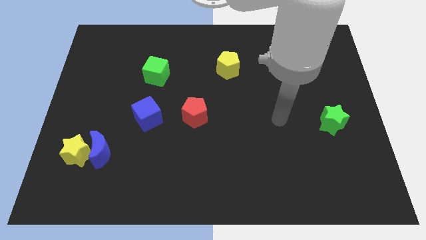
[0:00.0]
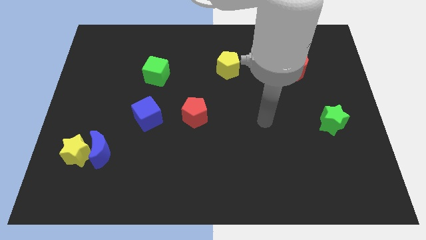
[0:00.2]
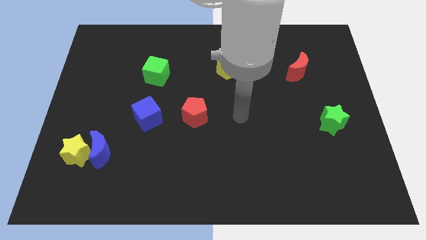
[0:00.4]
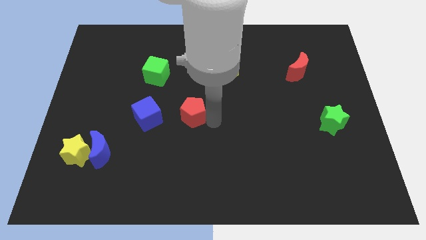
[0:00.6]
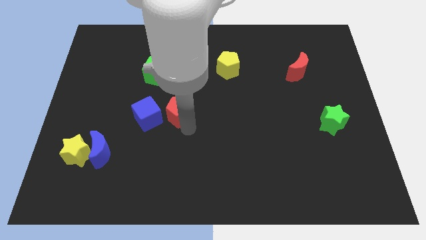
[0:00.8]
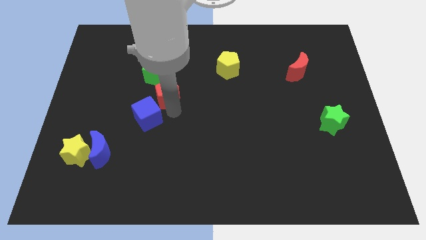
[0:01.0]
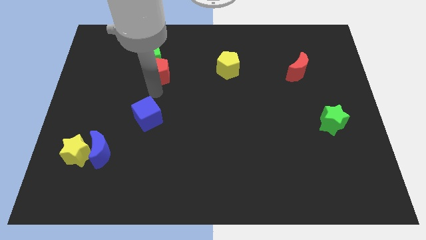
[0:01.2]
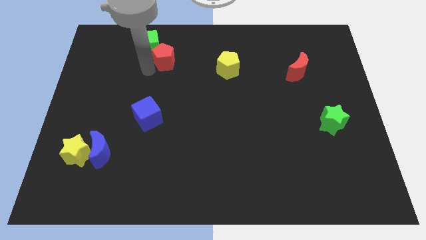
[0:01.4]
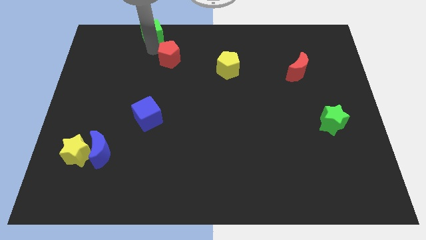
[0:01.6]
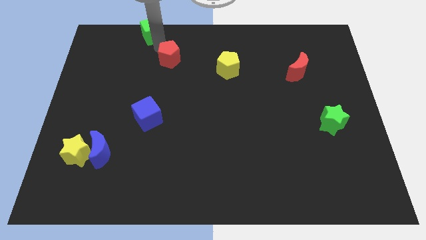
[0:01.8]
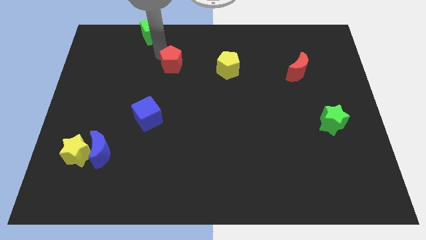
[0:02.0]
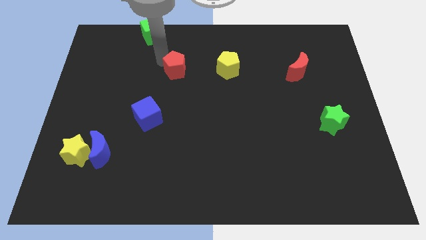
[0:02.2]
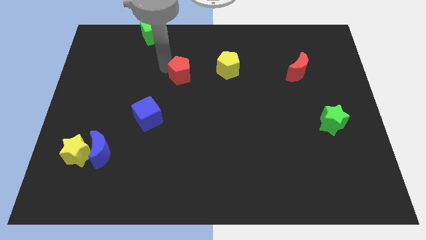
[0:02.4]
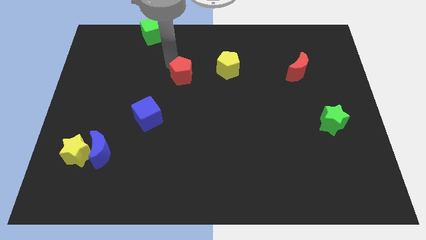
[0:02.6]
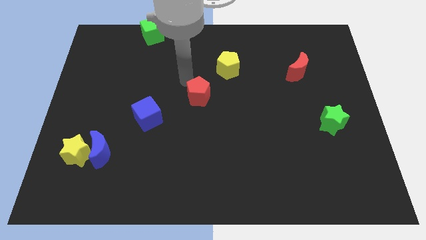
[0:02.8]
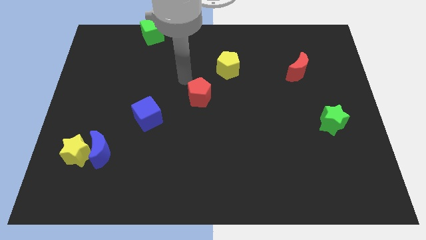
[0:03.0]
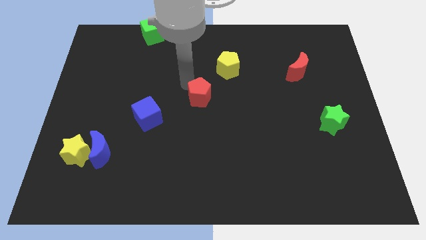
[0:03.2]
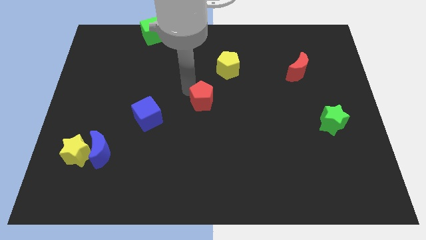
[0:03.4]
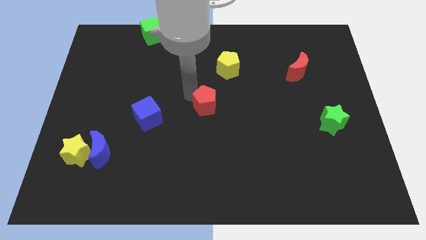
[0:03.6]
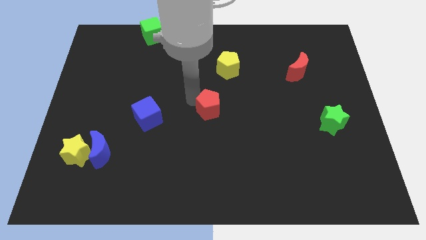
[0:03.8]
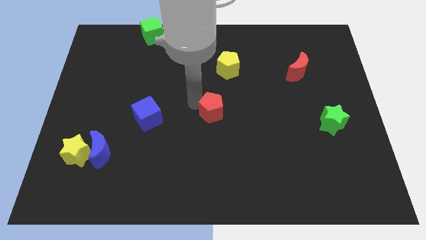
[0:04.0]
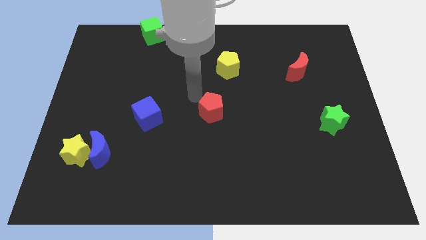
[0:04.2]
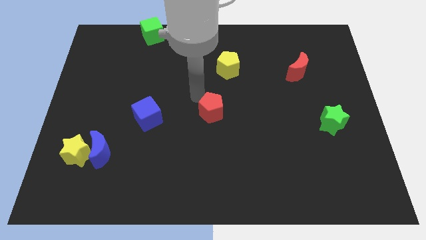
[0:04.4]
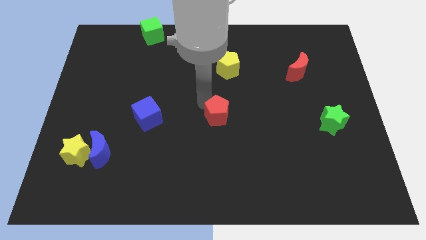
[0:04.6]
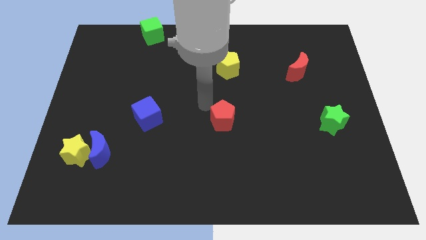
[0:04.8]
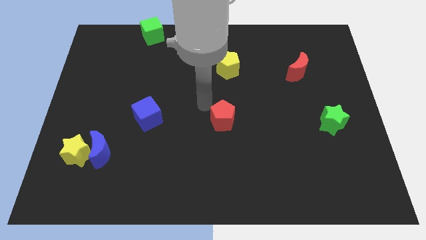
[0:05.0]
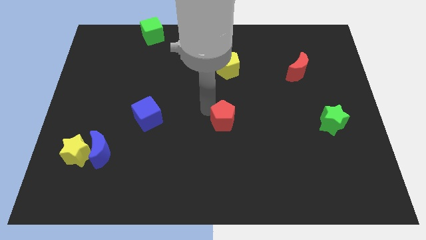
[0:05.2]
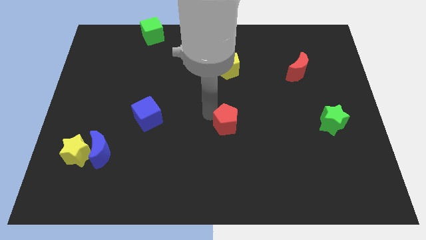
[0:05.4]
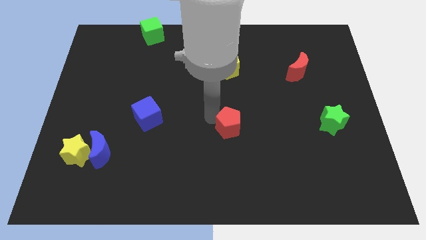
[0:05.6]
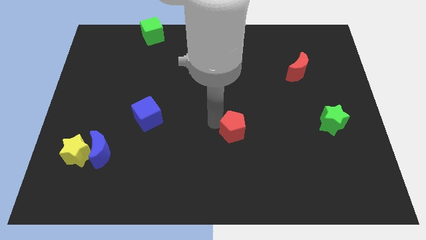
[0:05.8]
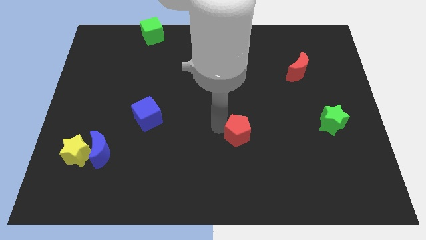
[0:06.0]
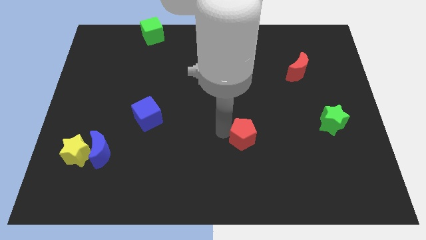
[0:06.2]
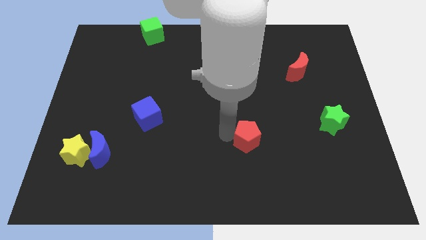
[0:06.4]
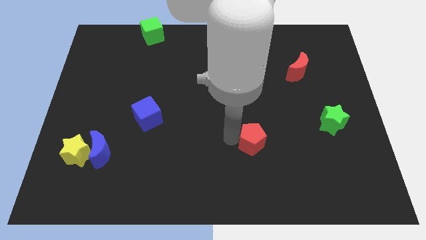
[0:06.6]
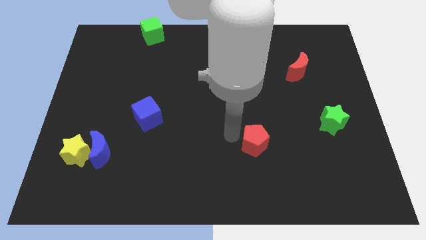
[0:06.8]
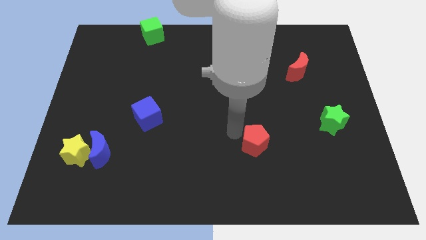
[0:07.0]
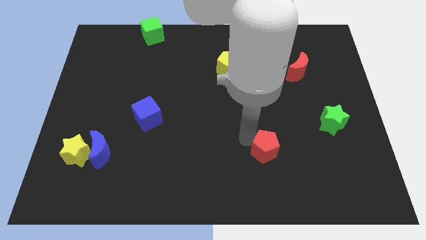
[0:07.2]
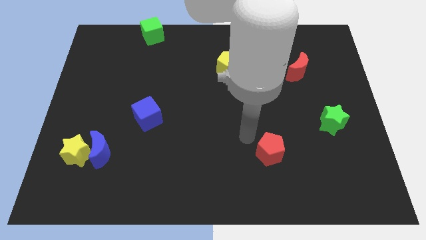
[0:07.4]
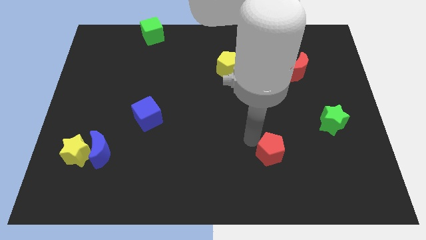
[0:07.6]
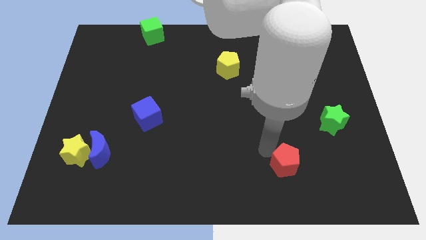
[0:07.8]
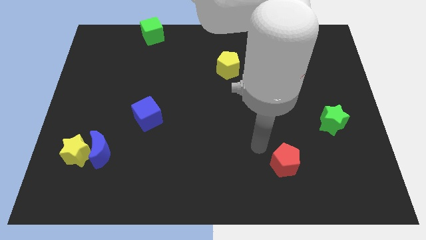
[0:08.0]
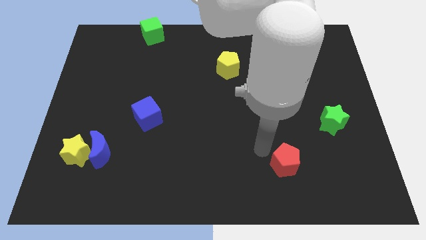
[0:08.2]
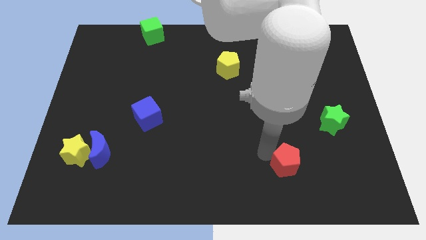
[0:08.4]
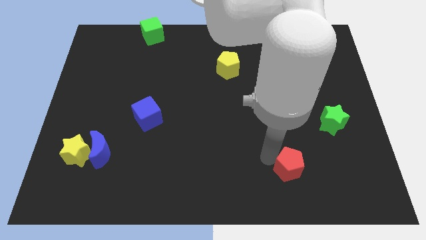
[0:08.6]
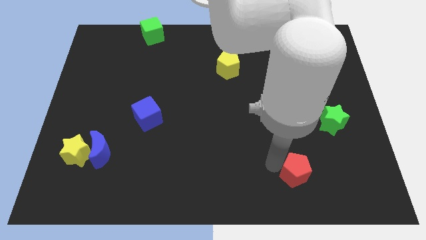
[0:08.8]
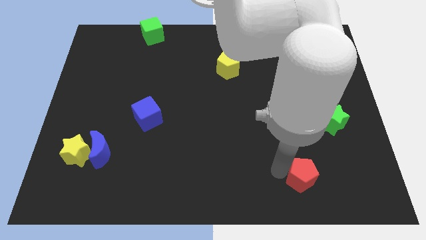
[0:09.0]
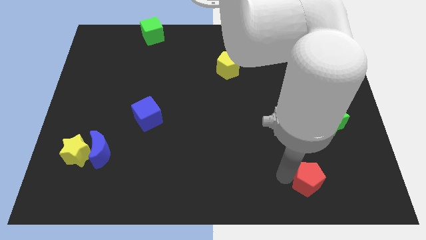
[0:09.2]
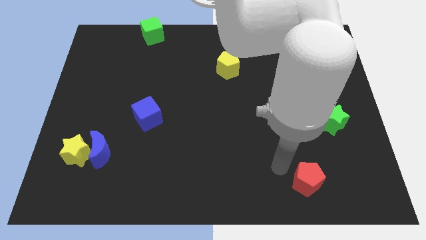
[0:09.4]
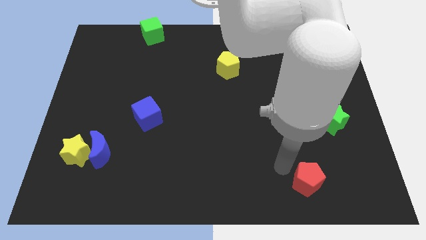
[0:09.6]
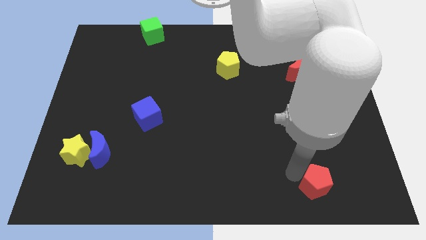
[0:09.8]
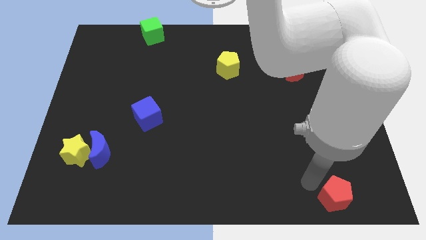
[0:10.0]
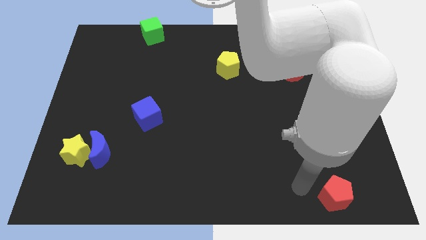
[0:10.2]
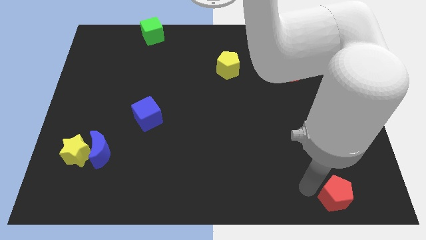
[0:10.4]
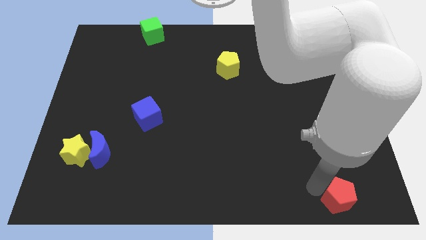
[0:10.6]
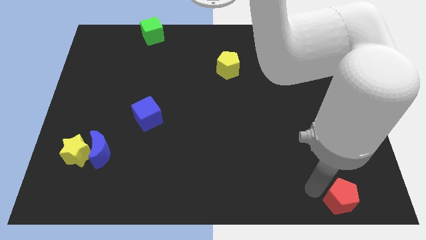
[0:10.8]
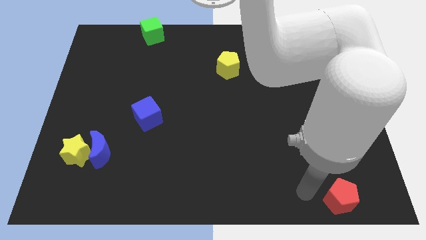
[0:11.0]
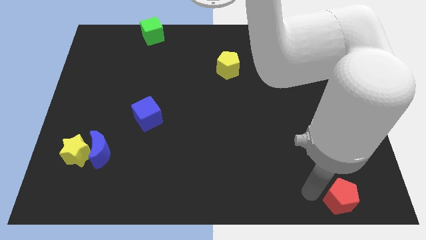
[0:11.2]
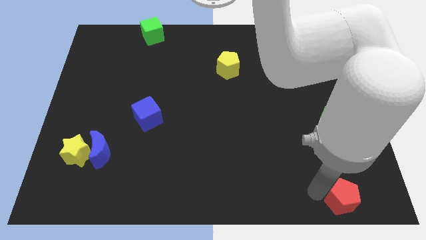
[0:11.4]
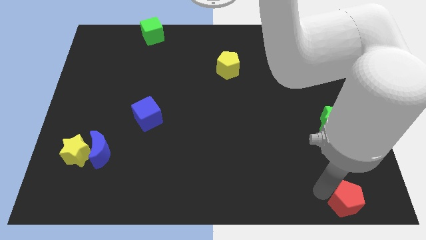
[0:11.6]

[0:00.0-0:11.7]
move the red pentagon to the bottom right corner

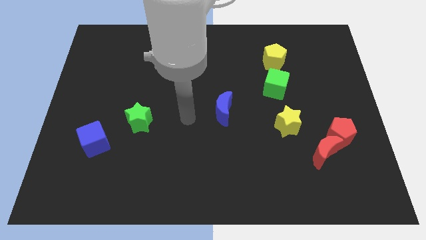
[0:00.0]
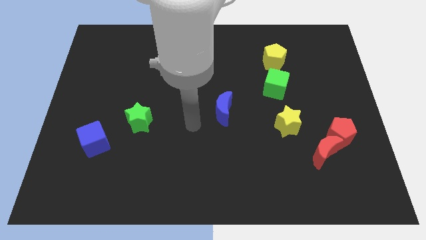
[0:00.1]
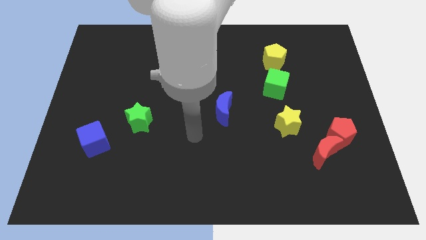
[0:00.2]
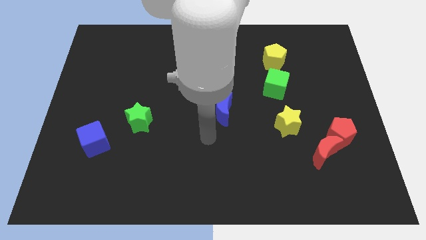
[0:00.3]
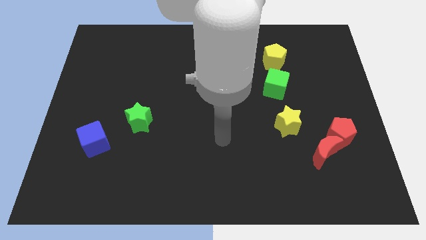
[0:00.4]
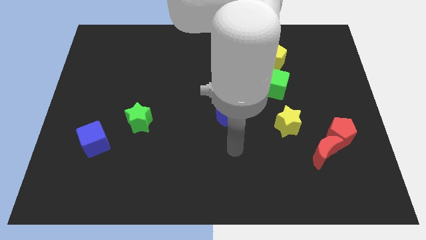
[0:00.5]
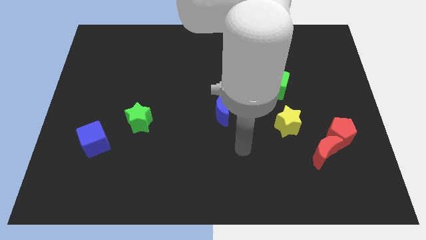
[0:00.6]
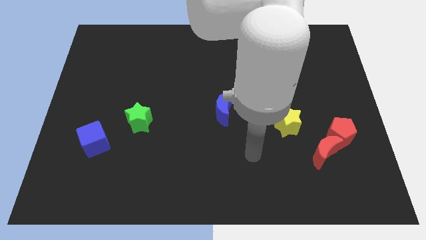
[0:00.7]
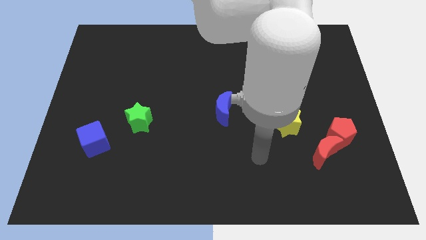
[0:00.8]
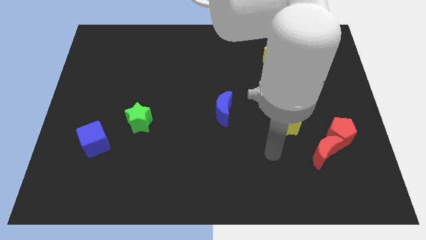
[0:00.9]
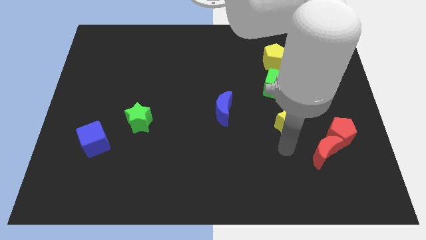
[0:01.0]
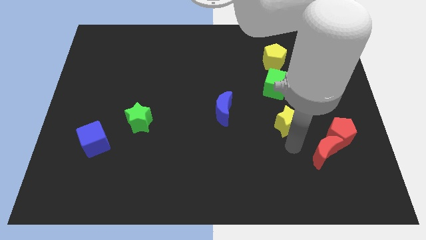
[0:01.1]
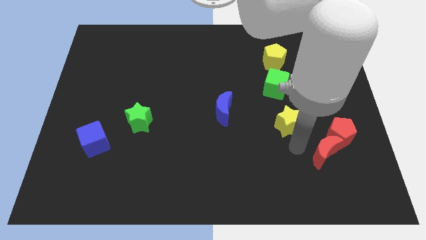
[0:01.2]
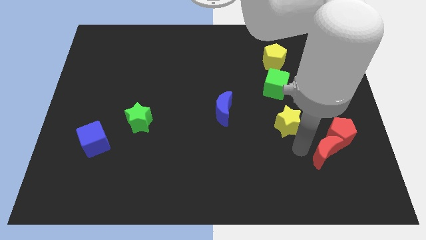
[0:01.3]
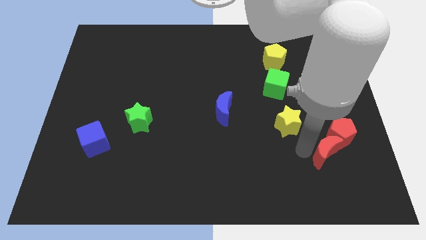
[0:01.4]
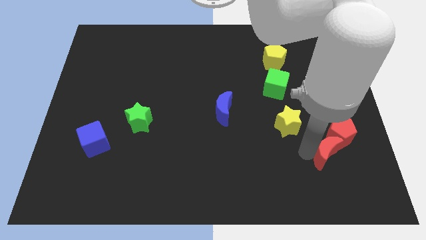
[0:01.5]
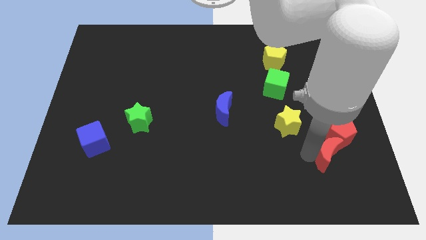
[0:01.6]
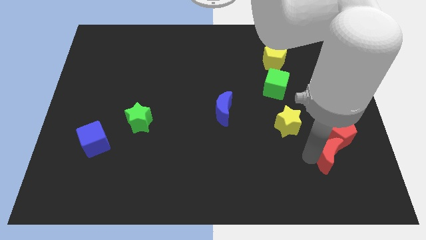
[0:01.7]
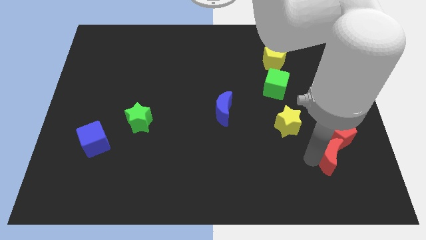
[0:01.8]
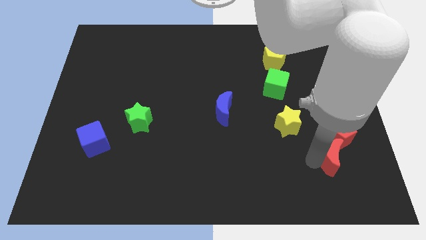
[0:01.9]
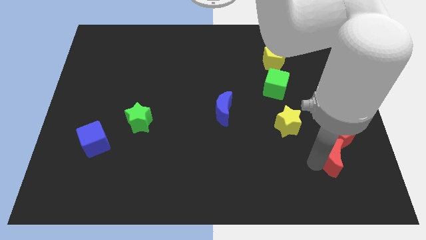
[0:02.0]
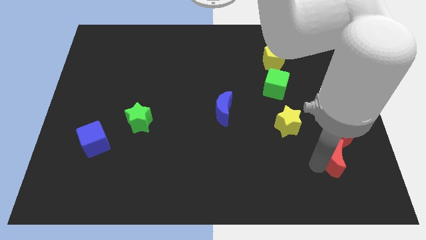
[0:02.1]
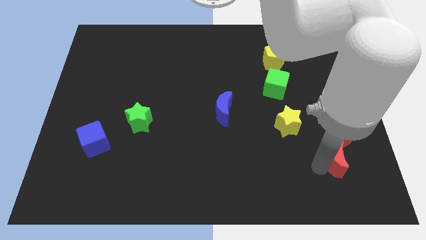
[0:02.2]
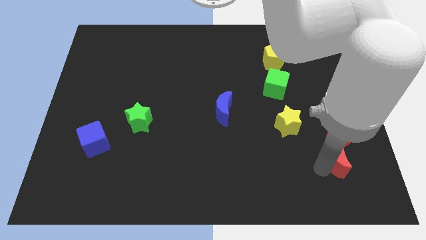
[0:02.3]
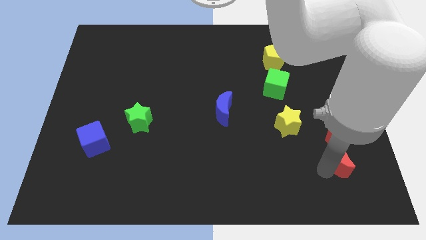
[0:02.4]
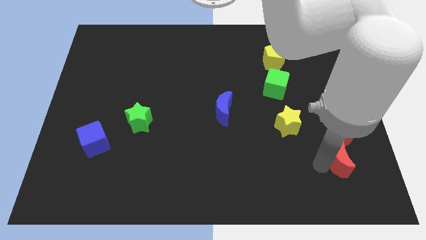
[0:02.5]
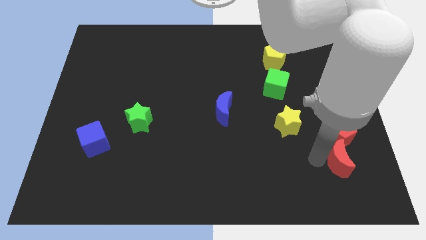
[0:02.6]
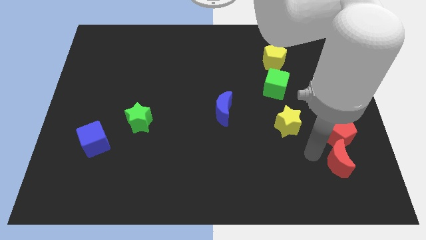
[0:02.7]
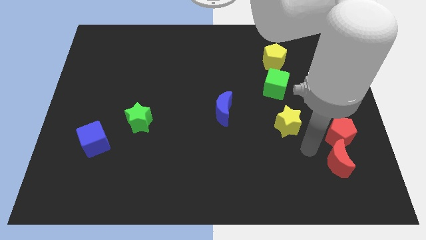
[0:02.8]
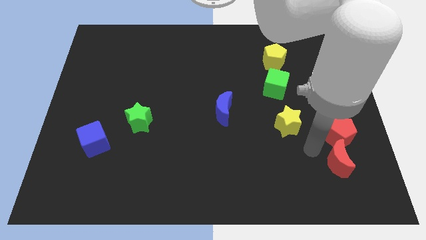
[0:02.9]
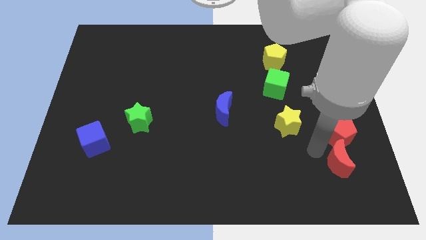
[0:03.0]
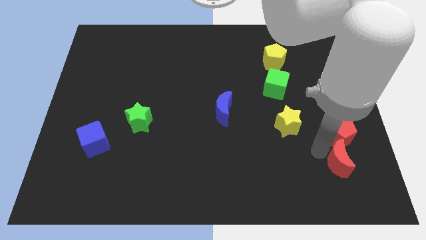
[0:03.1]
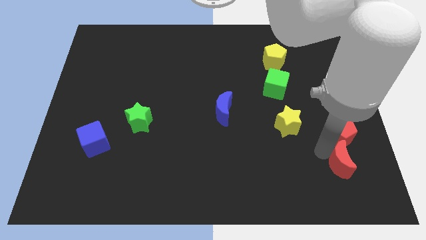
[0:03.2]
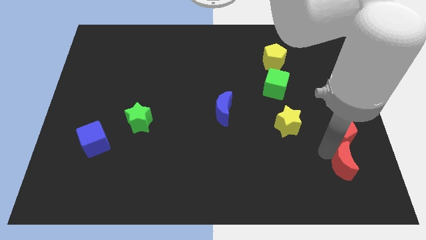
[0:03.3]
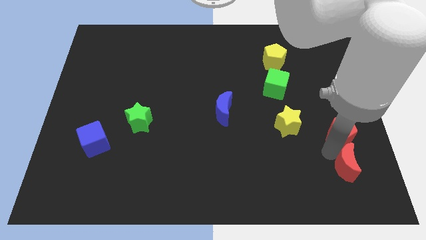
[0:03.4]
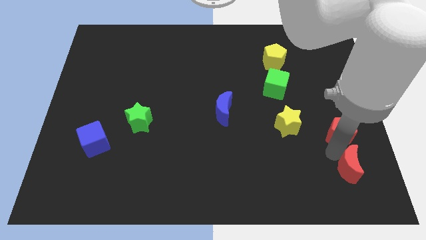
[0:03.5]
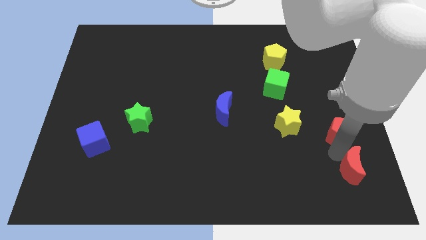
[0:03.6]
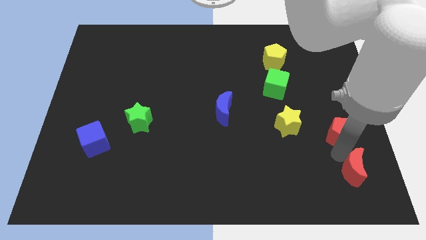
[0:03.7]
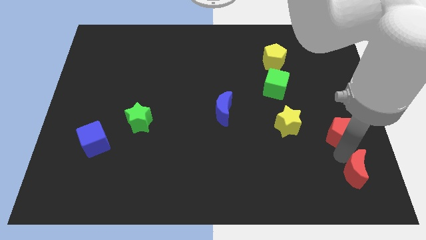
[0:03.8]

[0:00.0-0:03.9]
put the red moon to the bottom right corner
